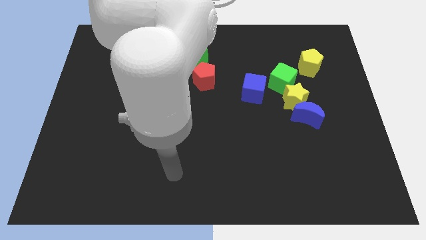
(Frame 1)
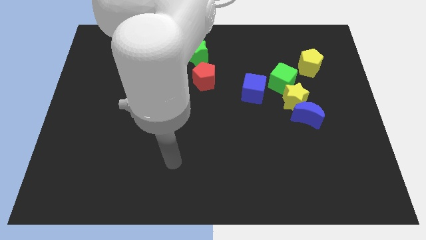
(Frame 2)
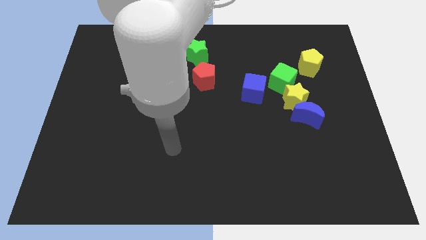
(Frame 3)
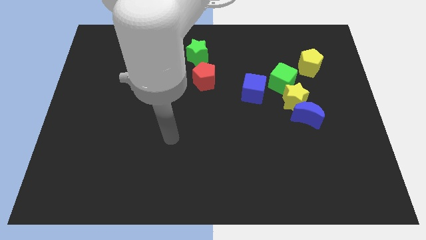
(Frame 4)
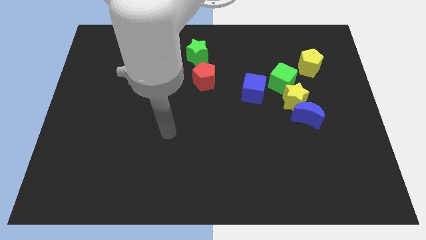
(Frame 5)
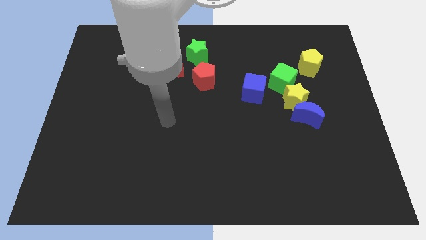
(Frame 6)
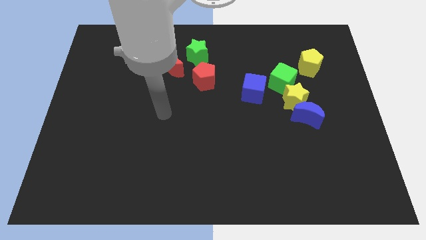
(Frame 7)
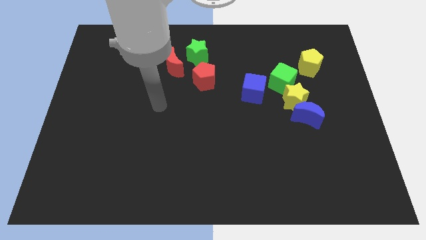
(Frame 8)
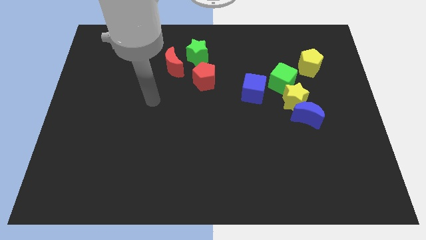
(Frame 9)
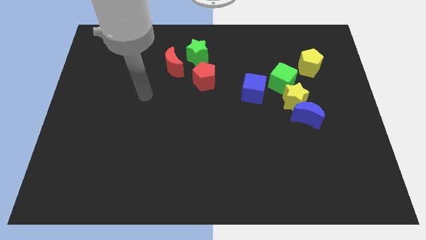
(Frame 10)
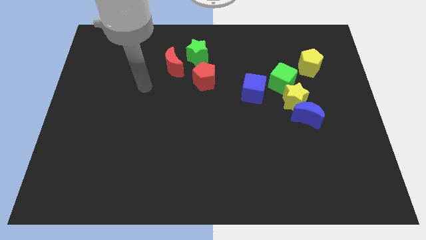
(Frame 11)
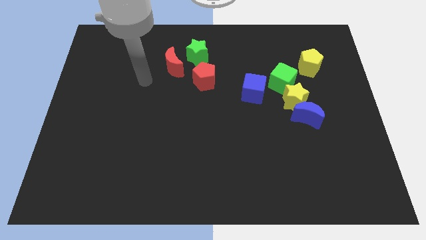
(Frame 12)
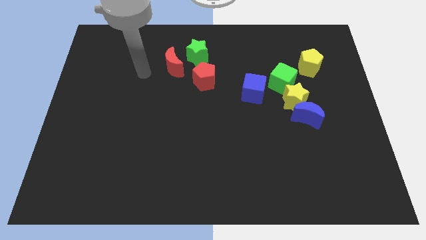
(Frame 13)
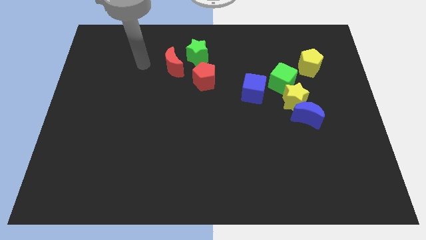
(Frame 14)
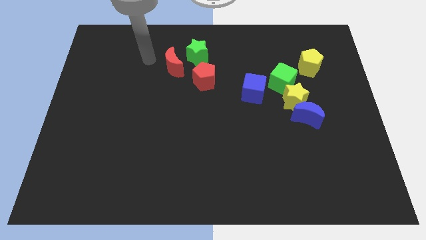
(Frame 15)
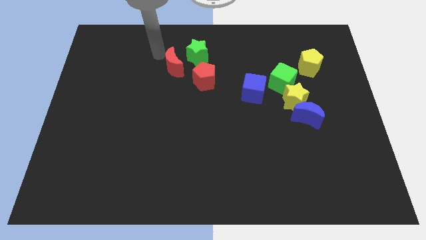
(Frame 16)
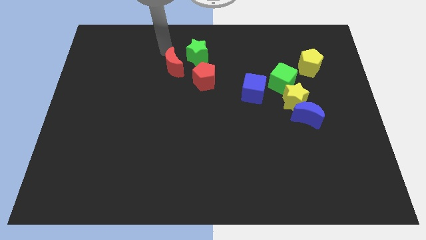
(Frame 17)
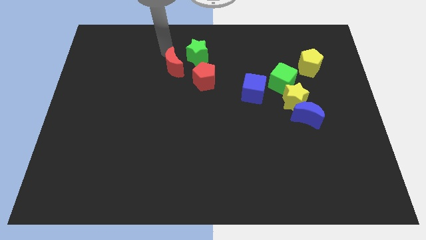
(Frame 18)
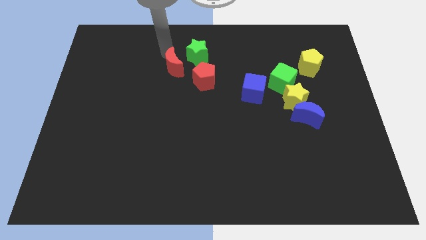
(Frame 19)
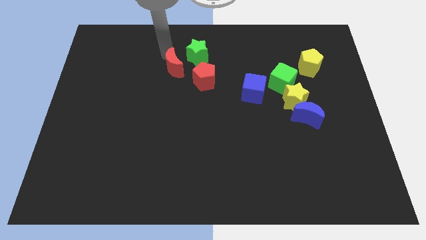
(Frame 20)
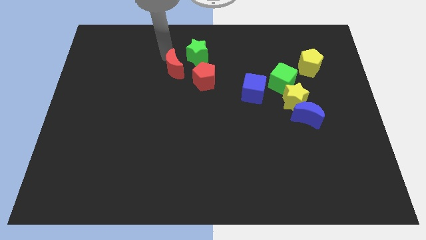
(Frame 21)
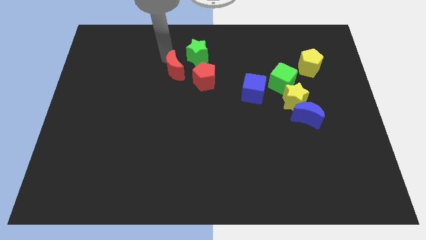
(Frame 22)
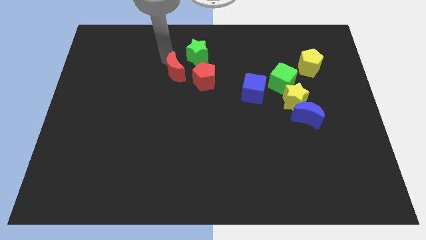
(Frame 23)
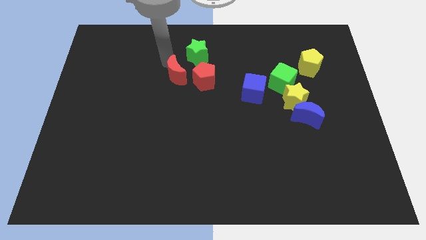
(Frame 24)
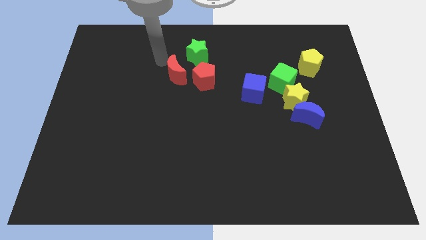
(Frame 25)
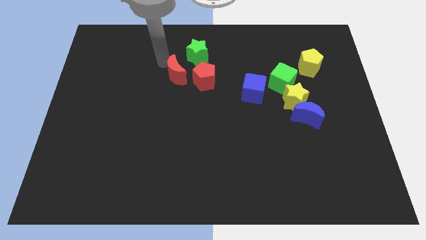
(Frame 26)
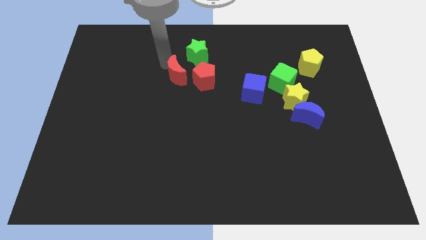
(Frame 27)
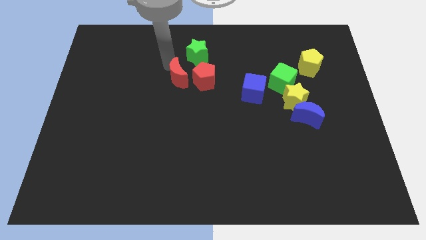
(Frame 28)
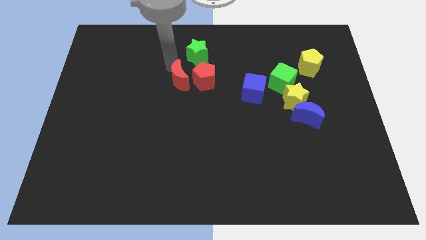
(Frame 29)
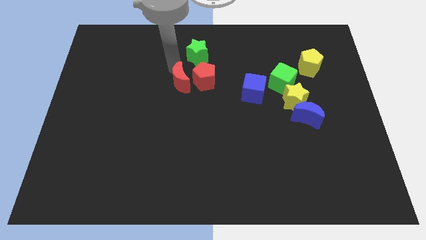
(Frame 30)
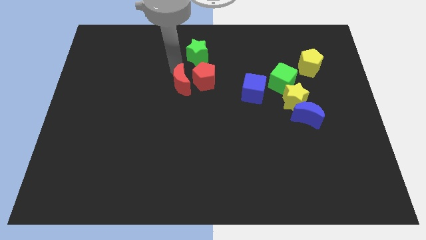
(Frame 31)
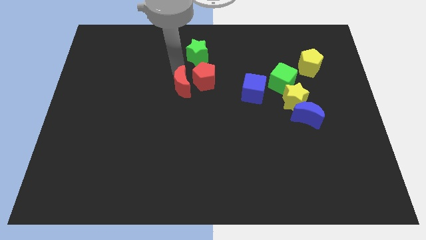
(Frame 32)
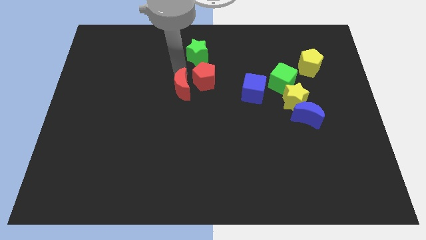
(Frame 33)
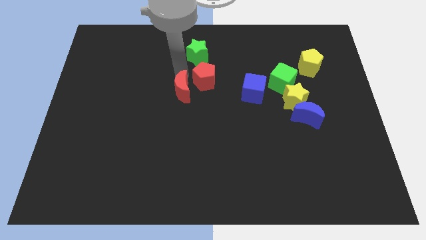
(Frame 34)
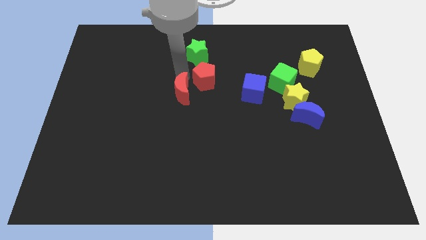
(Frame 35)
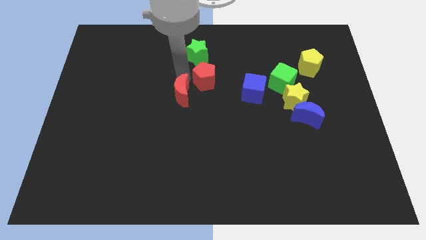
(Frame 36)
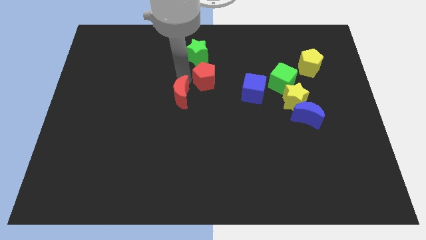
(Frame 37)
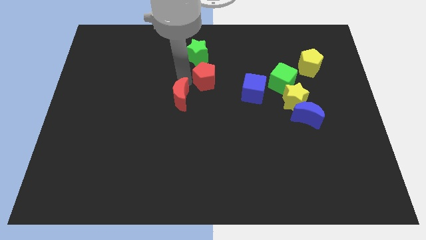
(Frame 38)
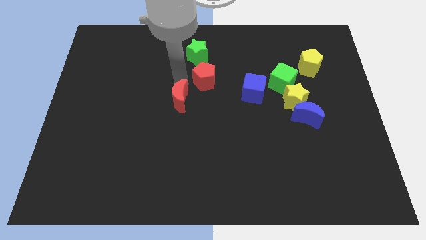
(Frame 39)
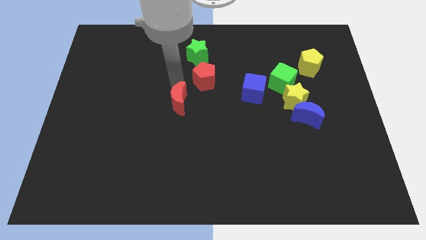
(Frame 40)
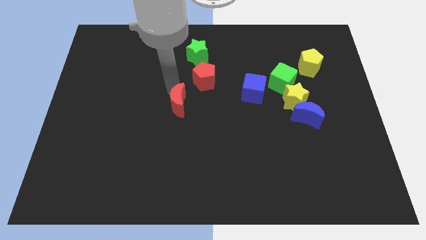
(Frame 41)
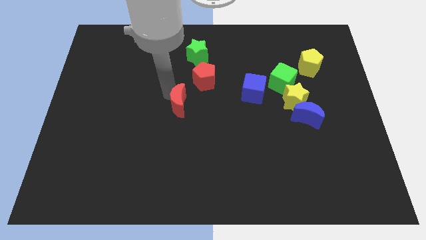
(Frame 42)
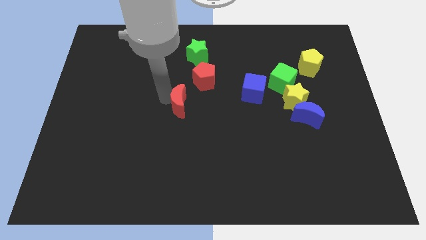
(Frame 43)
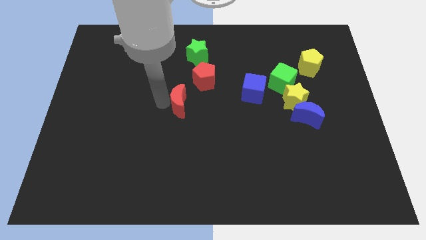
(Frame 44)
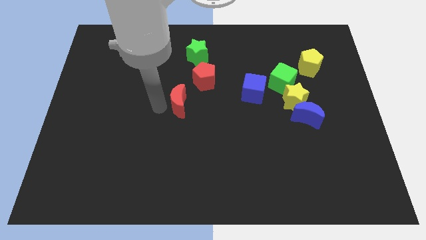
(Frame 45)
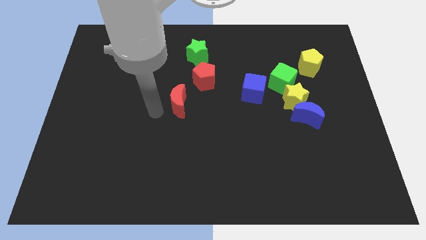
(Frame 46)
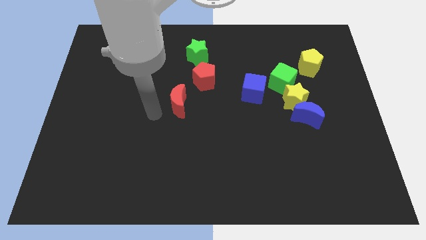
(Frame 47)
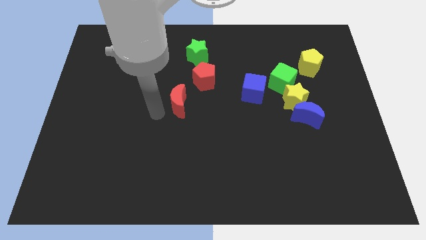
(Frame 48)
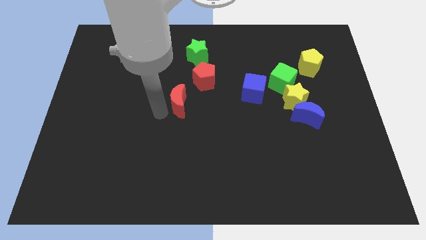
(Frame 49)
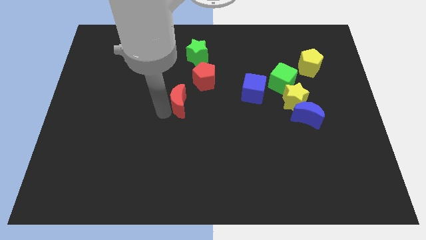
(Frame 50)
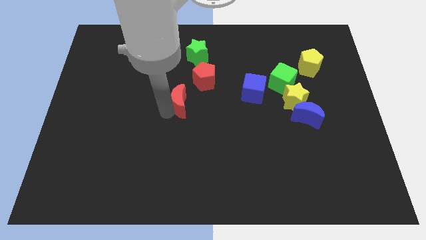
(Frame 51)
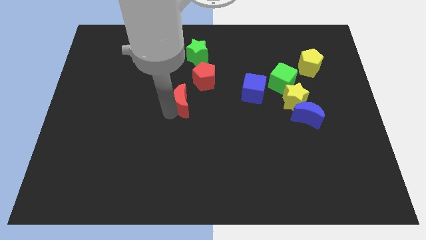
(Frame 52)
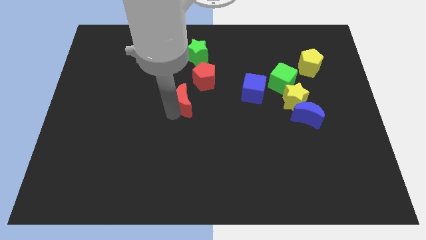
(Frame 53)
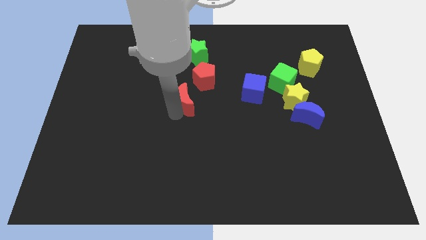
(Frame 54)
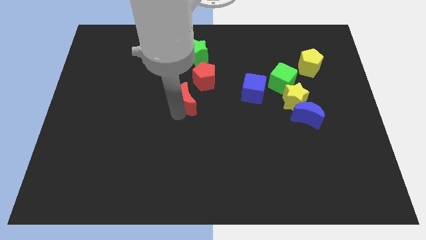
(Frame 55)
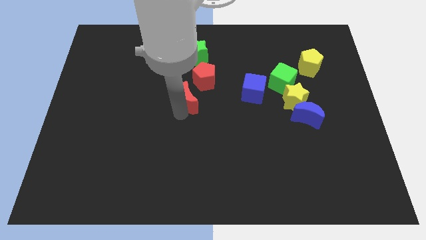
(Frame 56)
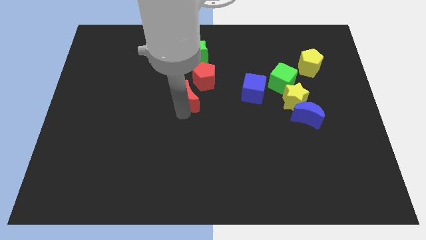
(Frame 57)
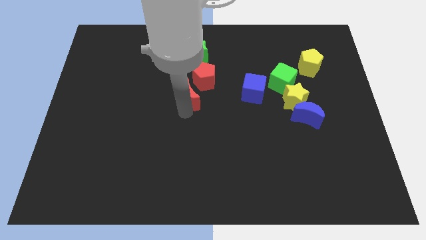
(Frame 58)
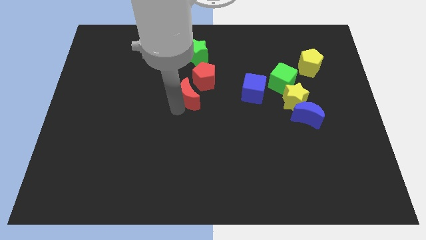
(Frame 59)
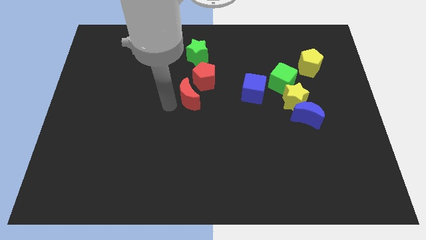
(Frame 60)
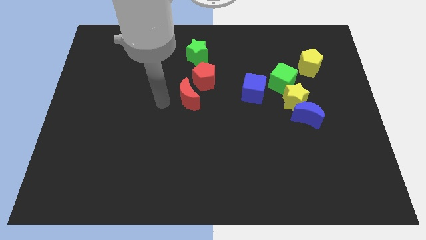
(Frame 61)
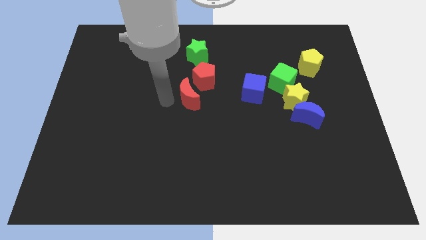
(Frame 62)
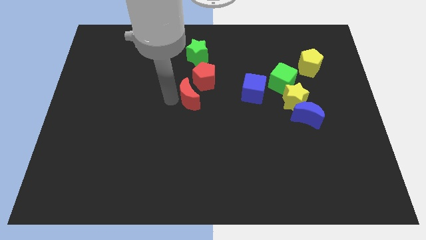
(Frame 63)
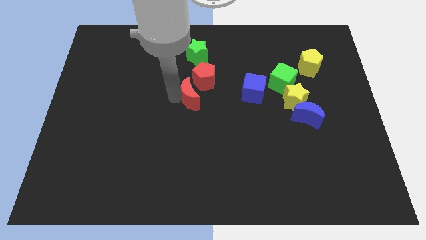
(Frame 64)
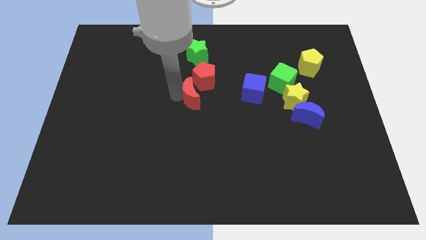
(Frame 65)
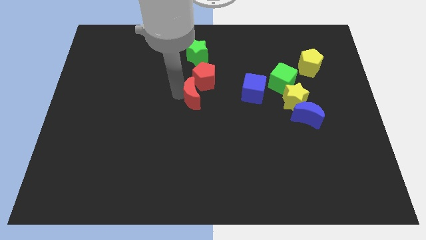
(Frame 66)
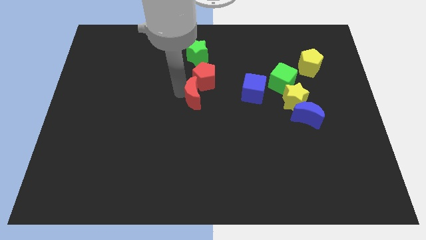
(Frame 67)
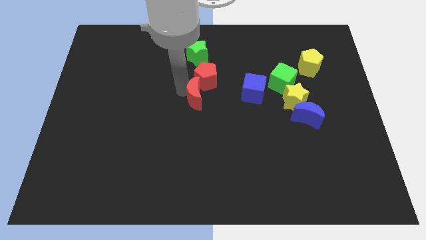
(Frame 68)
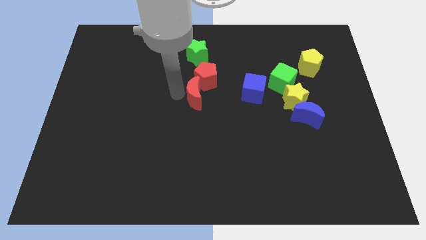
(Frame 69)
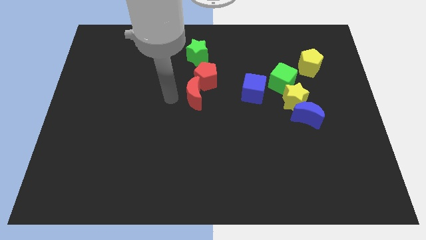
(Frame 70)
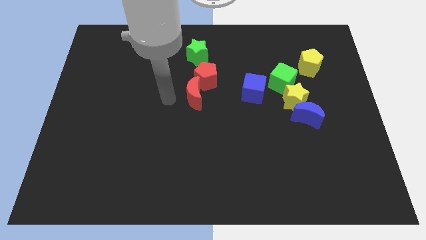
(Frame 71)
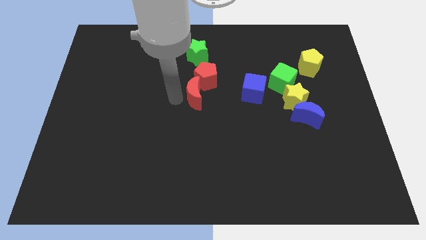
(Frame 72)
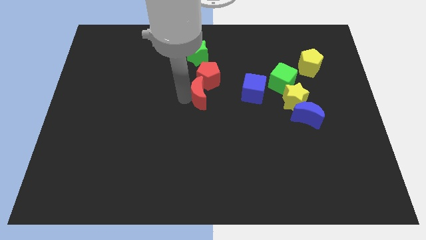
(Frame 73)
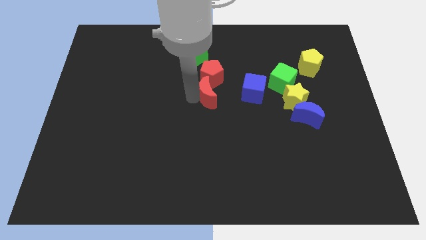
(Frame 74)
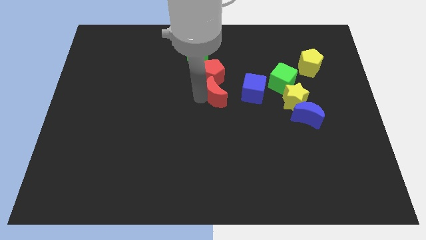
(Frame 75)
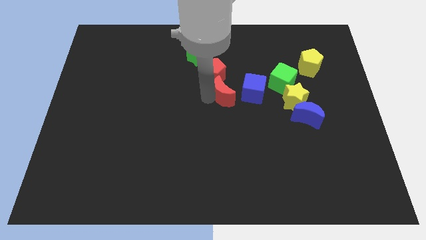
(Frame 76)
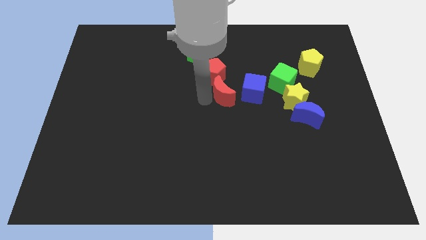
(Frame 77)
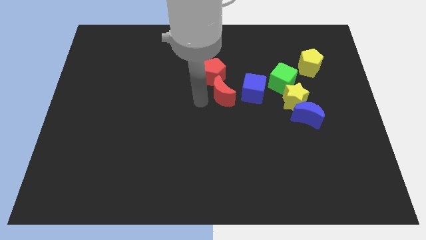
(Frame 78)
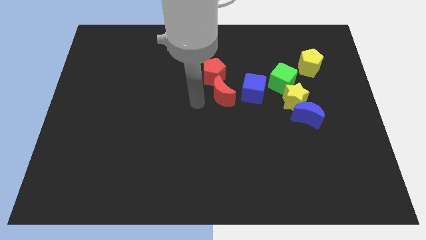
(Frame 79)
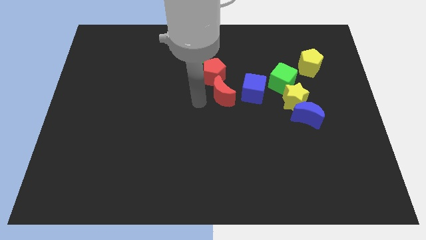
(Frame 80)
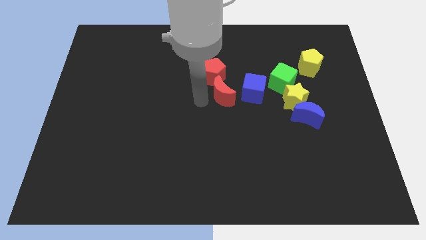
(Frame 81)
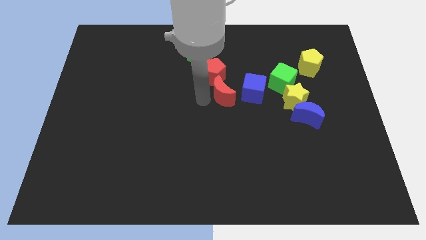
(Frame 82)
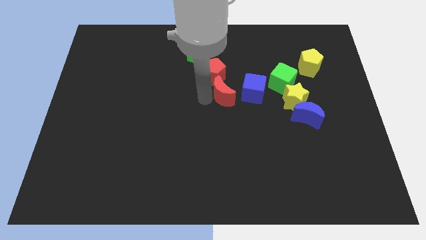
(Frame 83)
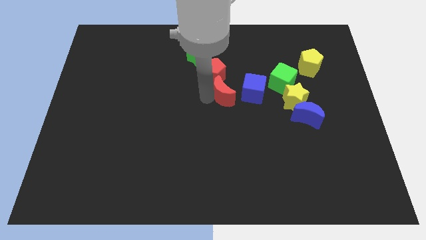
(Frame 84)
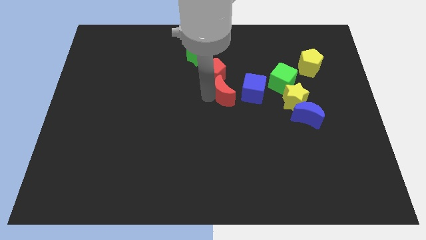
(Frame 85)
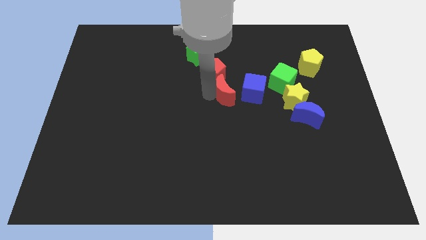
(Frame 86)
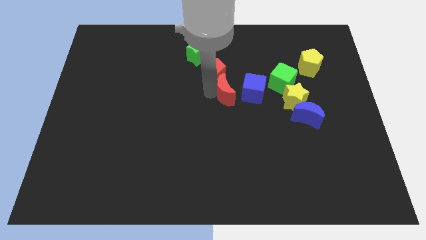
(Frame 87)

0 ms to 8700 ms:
move the red moon to the left of the green cube
